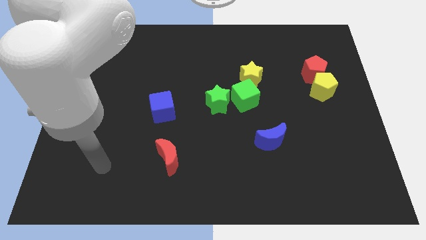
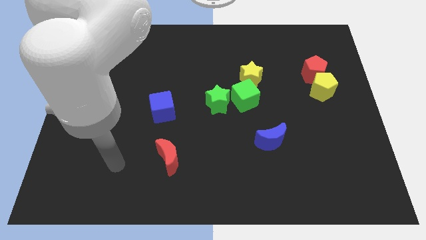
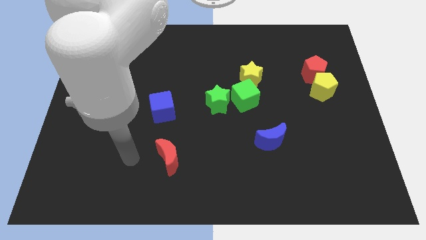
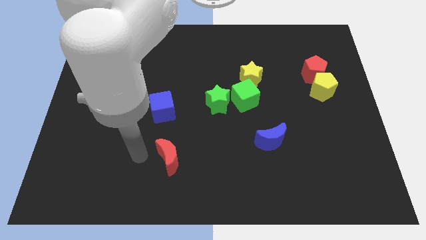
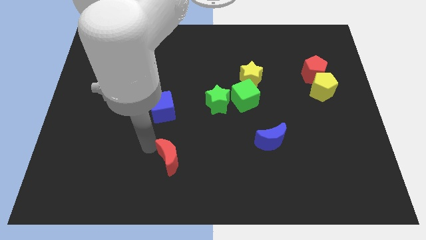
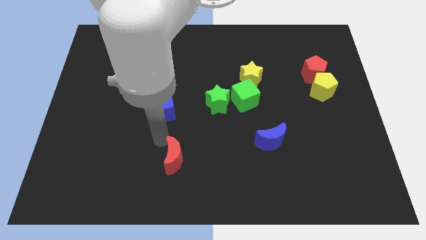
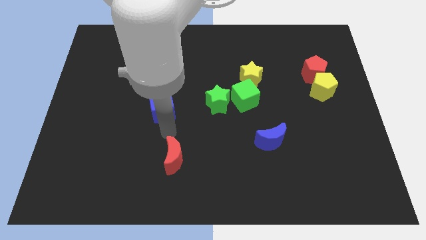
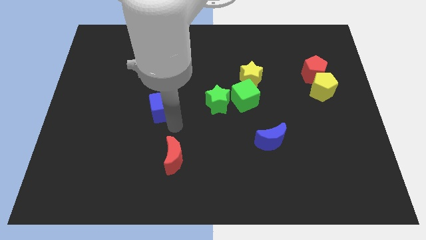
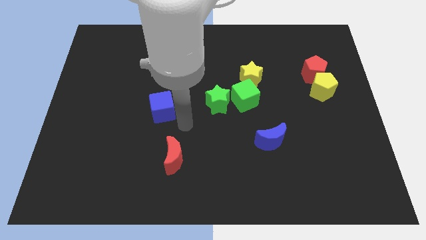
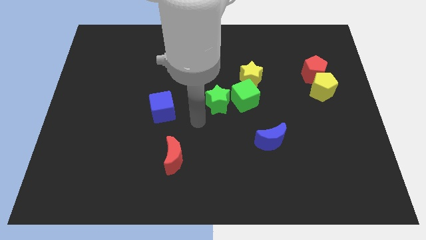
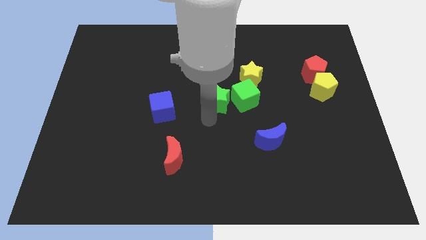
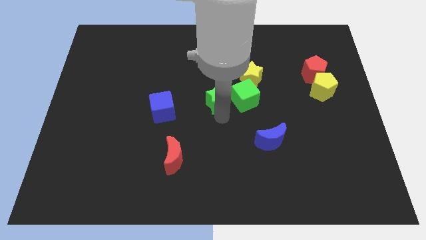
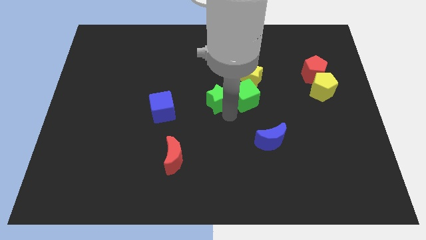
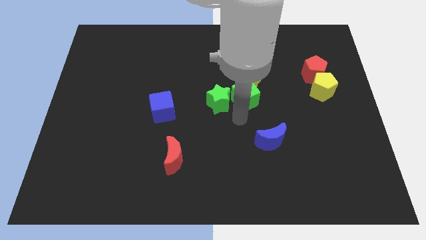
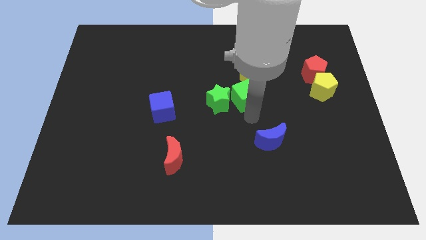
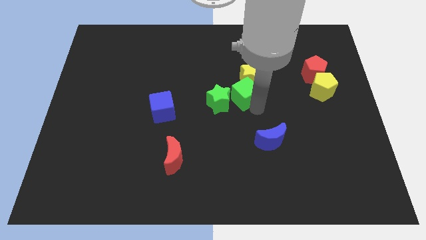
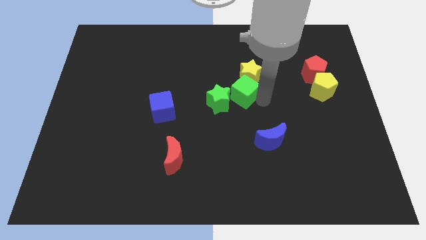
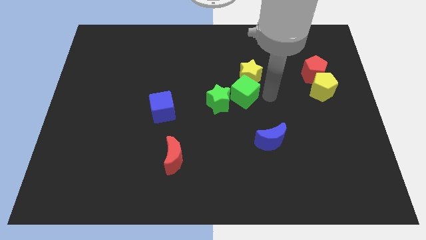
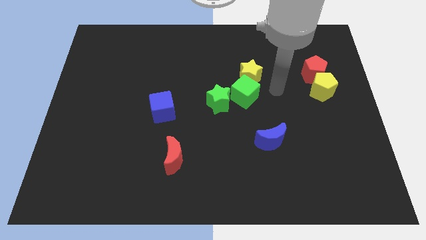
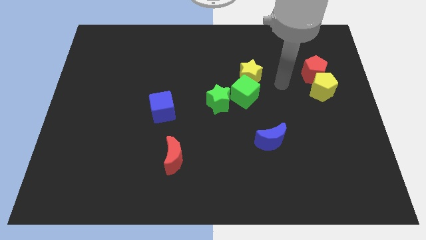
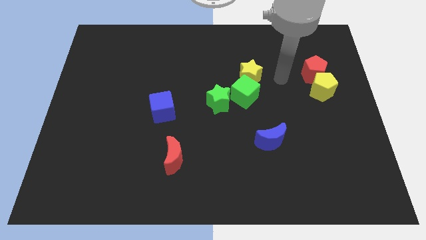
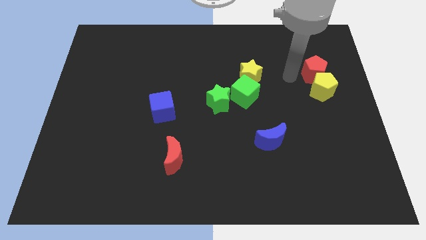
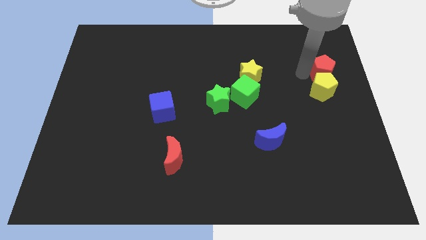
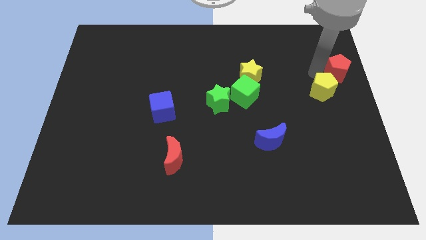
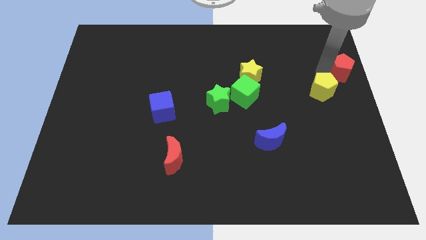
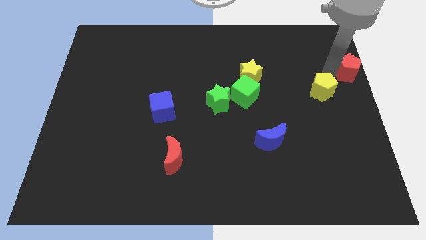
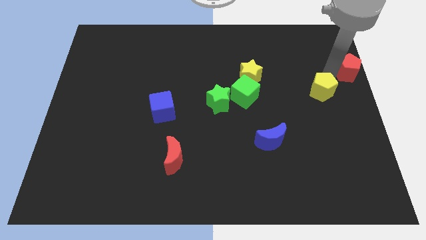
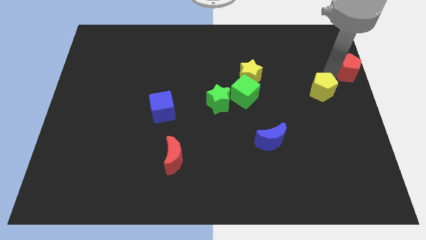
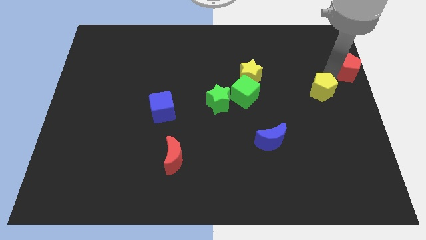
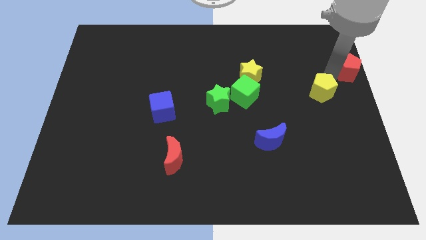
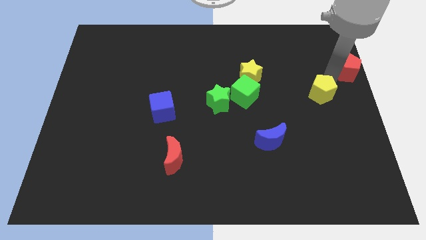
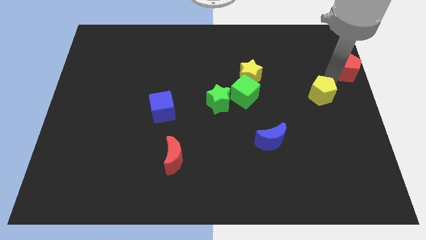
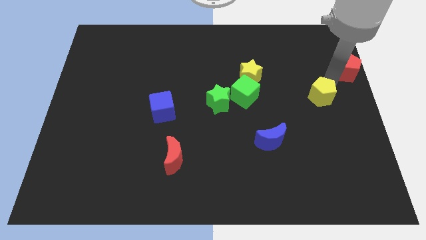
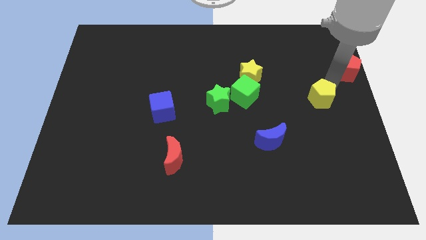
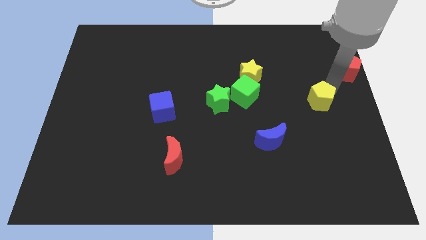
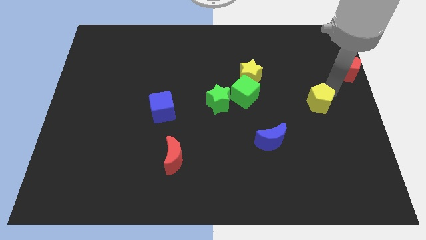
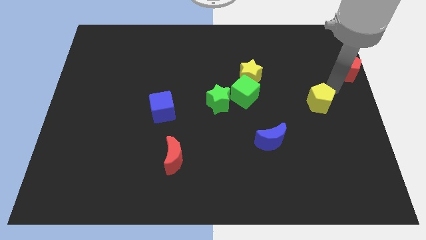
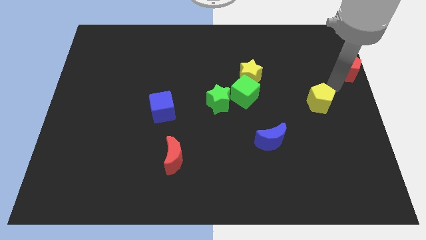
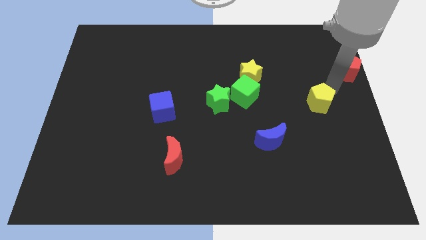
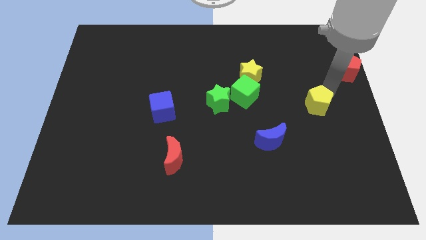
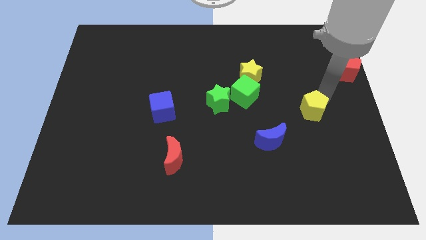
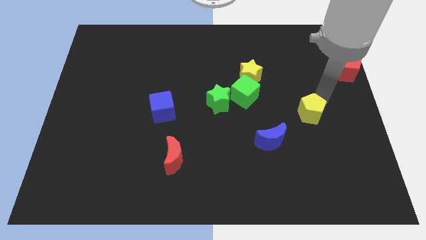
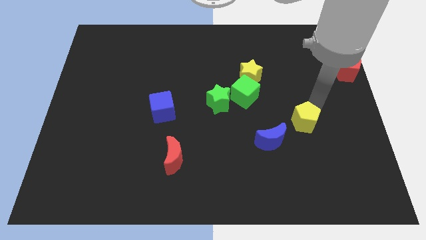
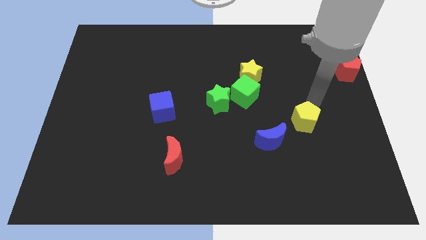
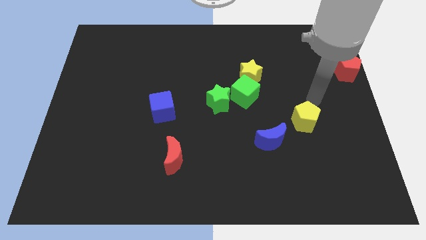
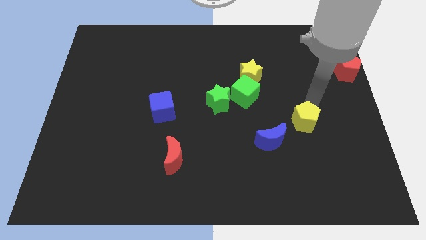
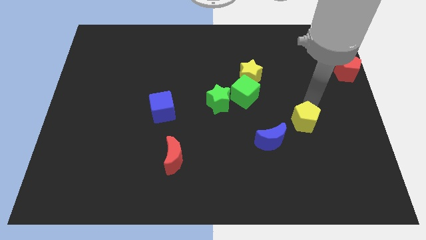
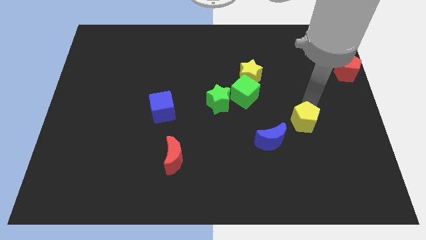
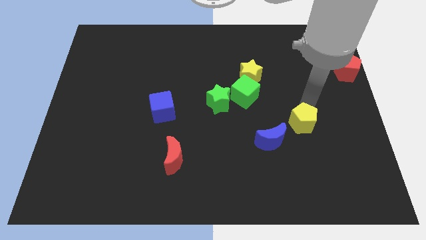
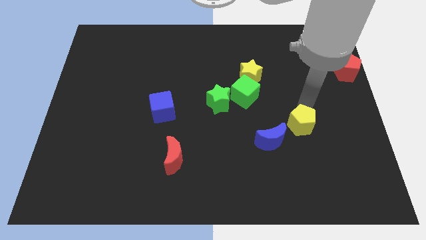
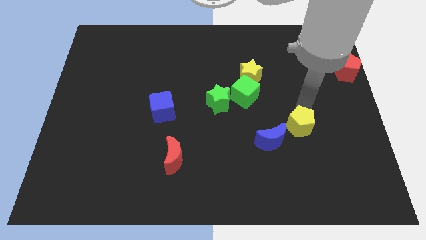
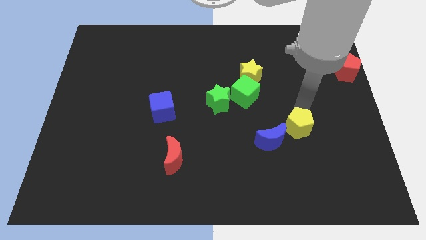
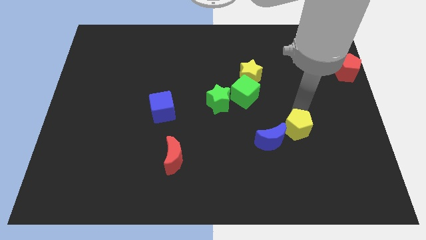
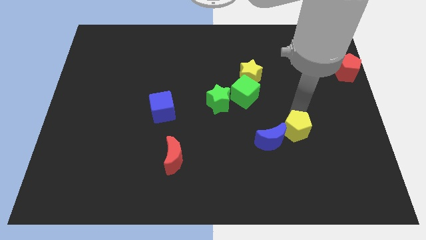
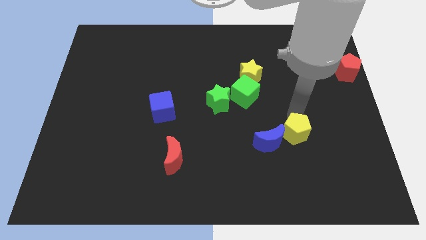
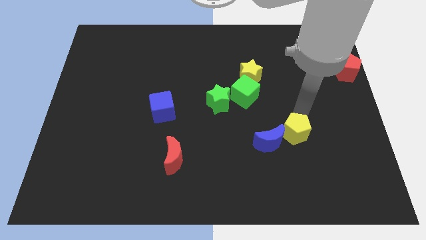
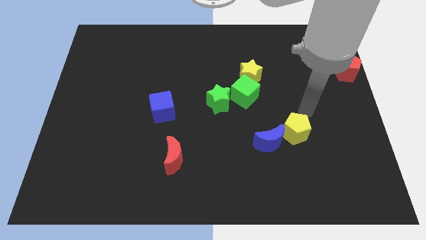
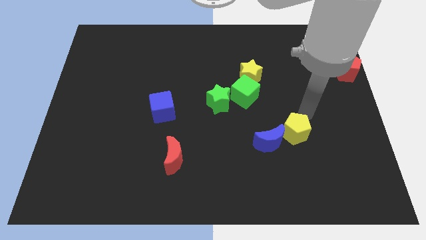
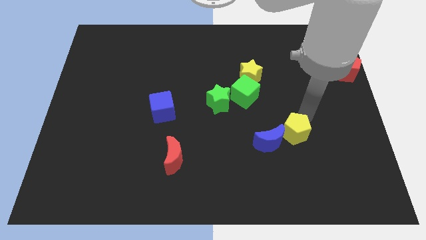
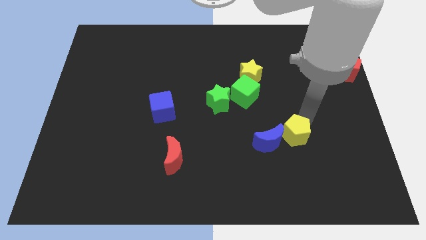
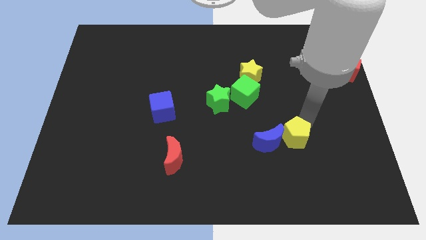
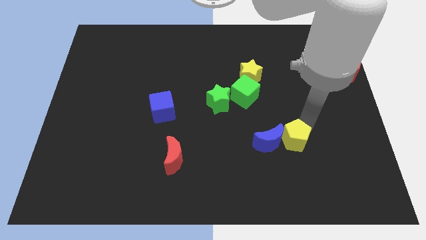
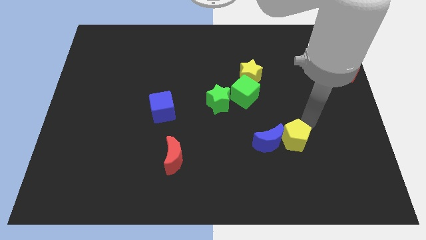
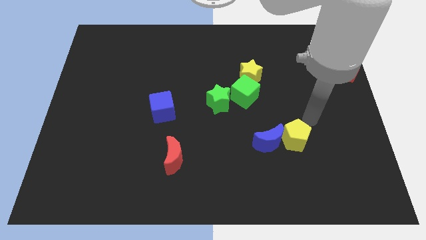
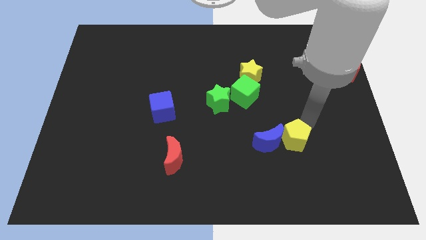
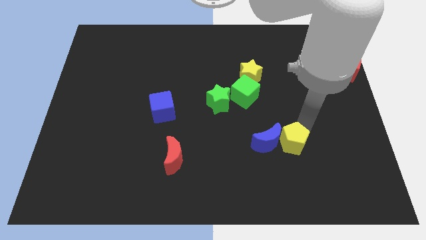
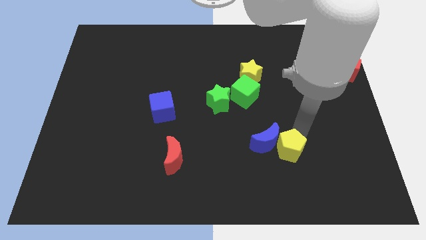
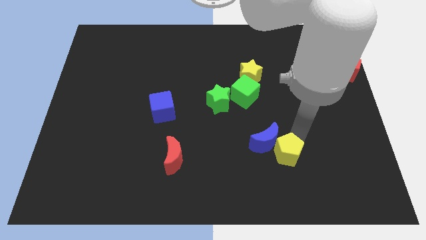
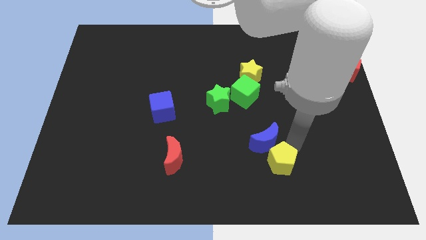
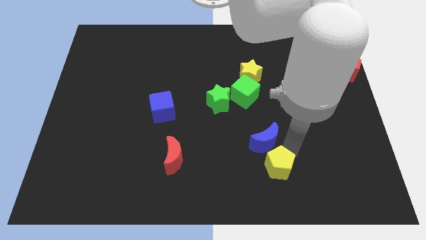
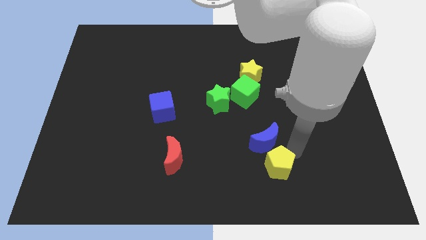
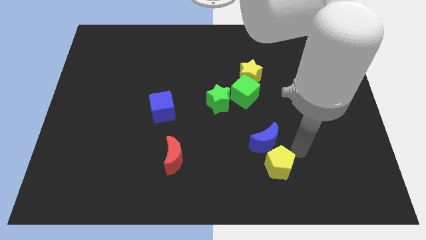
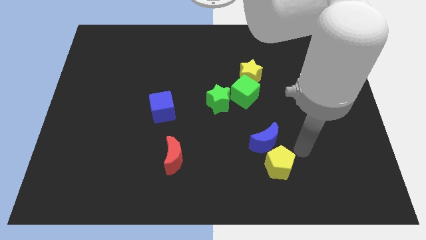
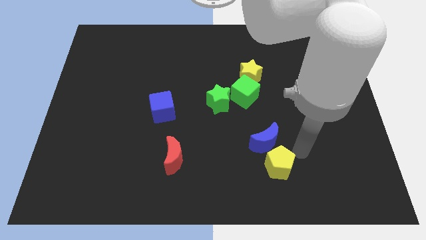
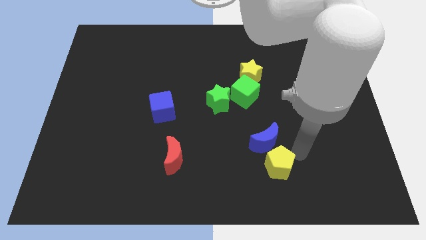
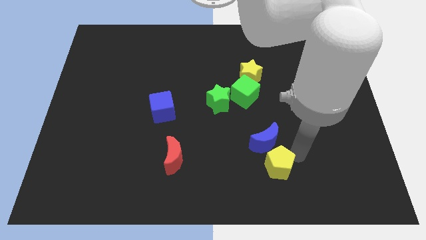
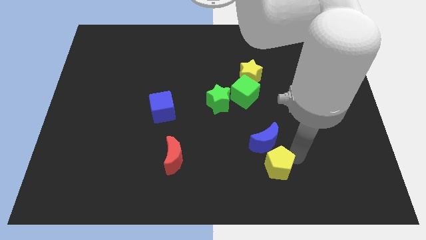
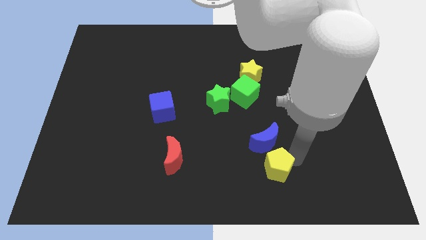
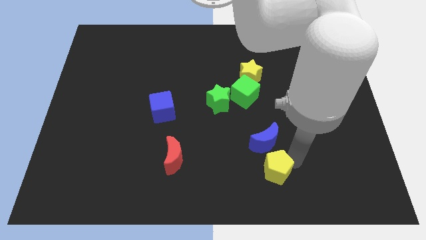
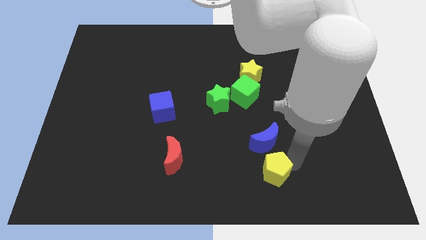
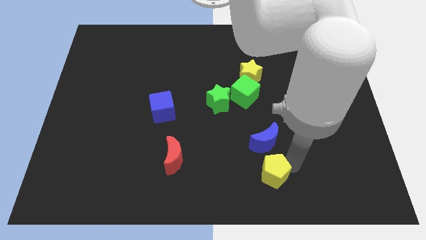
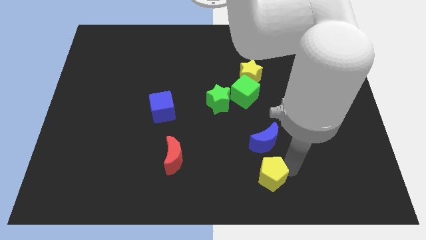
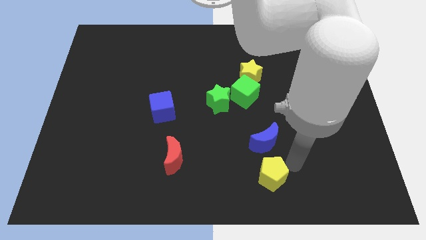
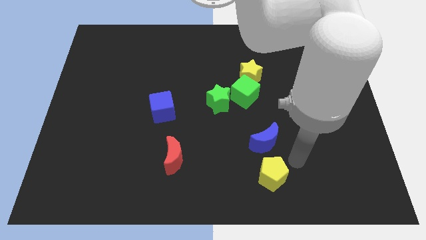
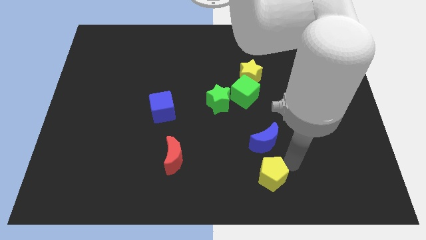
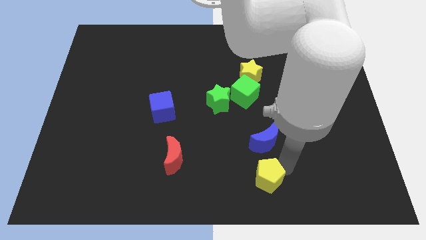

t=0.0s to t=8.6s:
push the yellow pentagon to the bottom
